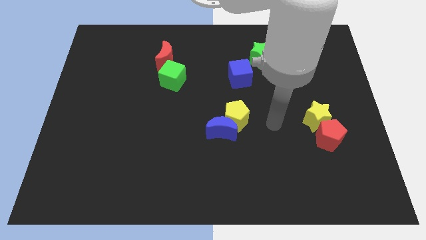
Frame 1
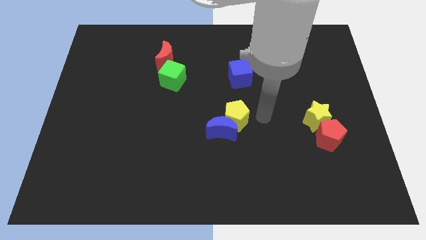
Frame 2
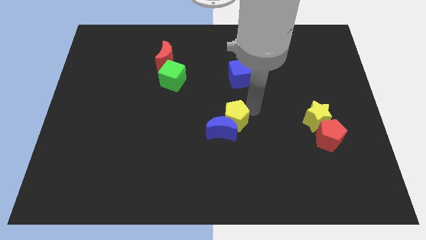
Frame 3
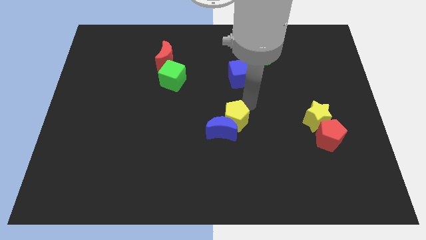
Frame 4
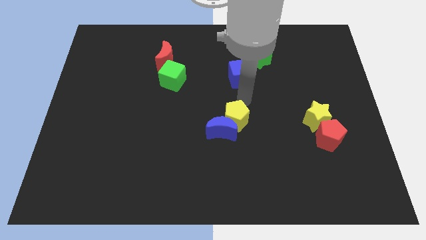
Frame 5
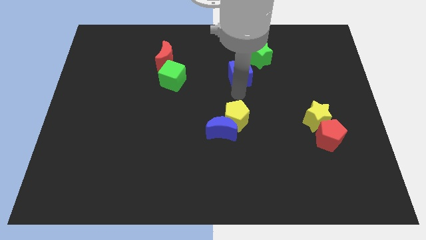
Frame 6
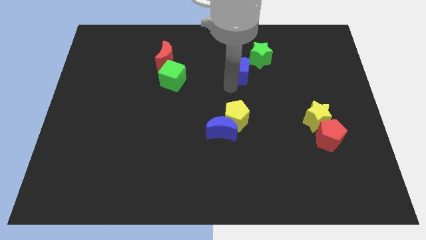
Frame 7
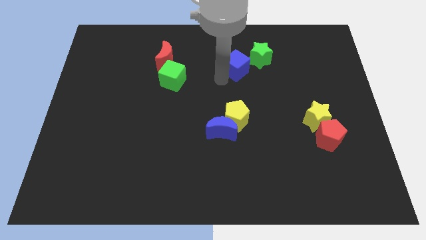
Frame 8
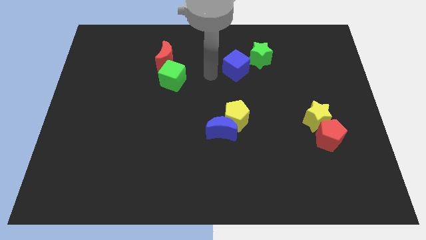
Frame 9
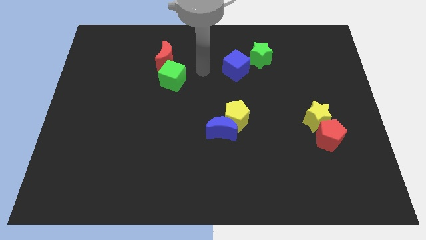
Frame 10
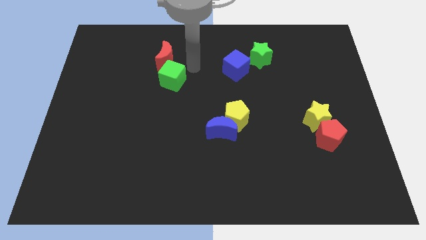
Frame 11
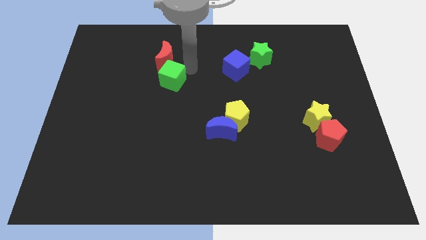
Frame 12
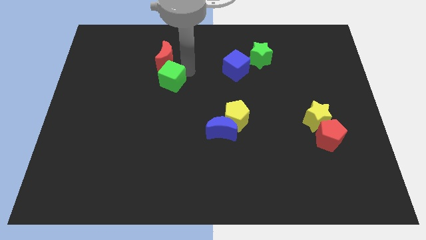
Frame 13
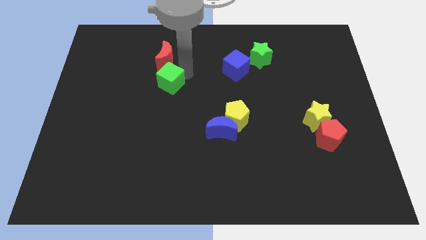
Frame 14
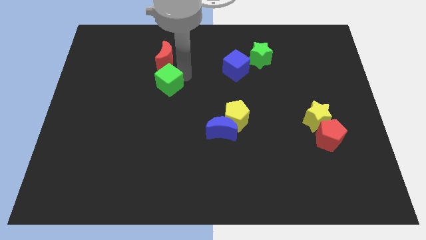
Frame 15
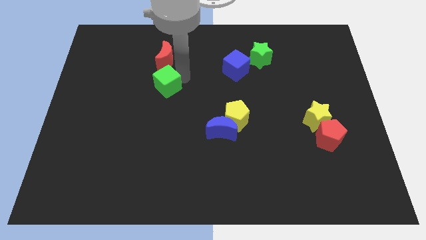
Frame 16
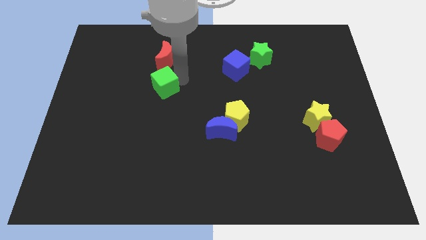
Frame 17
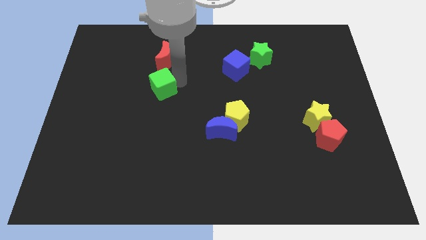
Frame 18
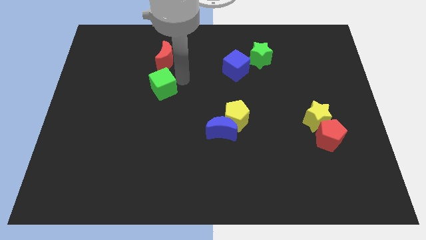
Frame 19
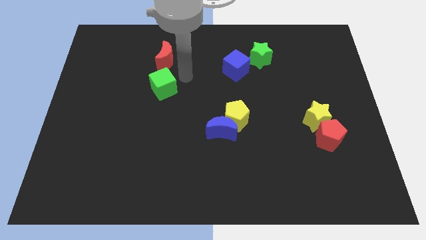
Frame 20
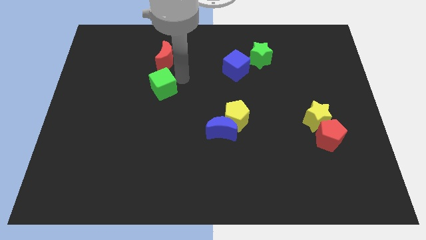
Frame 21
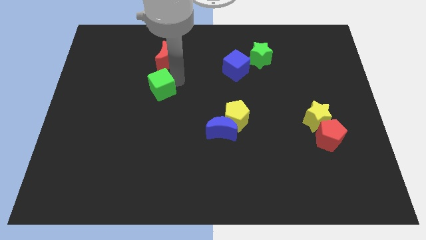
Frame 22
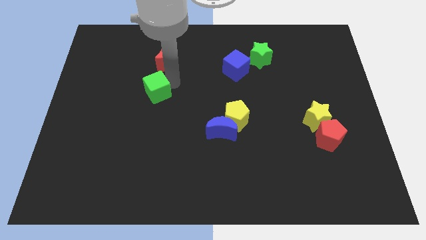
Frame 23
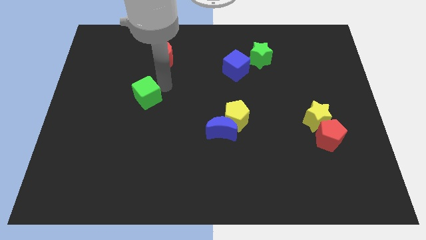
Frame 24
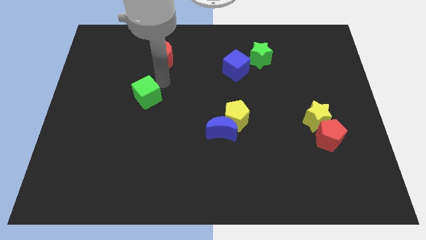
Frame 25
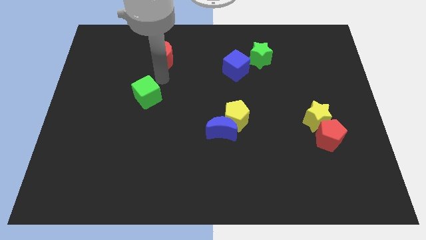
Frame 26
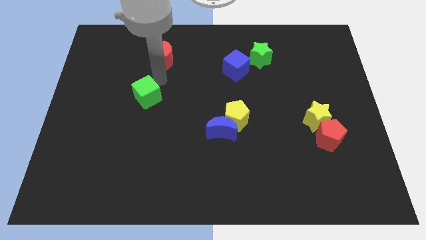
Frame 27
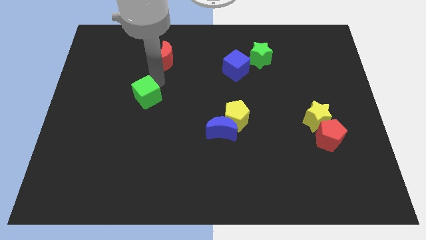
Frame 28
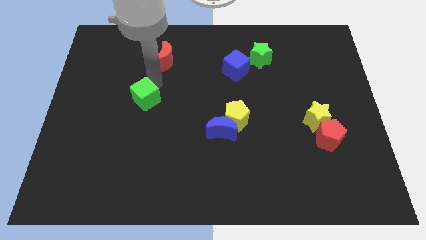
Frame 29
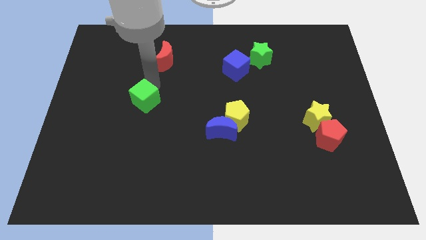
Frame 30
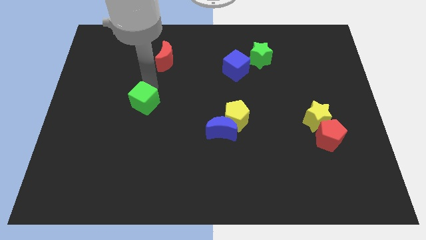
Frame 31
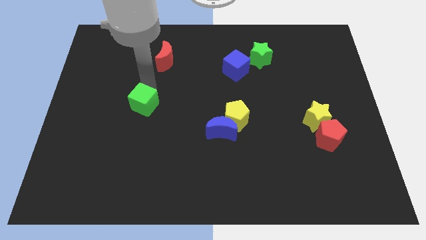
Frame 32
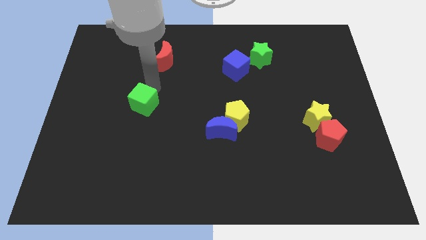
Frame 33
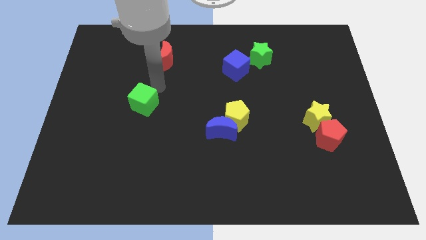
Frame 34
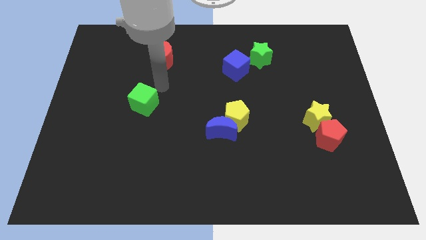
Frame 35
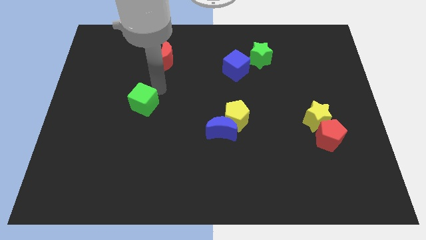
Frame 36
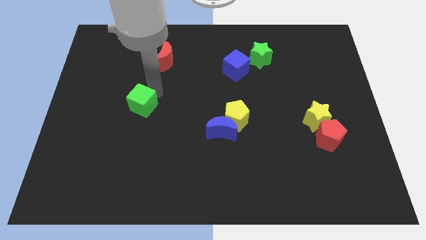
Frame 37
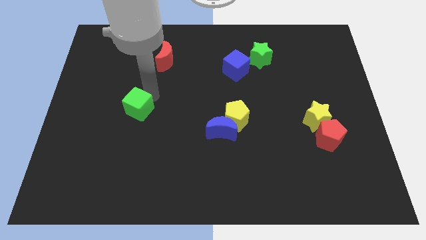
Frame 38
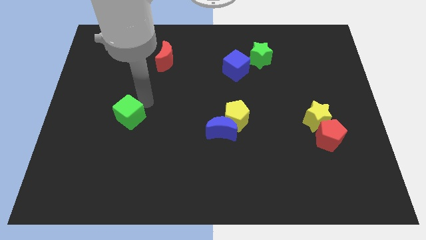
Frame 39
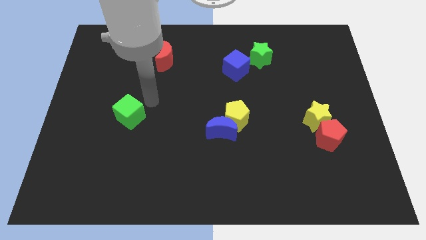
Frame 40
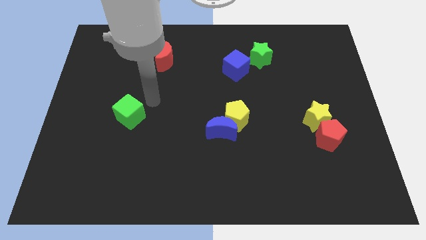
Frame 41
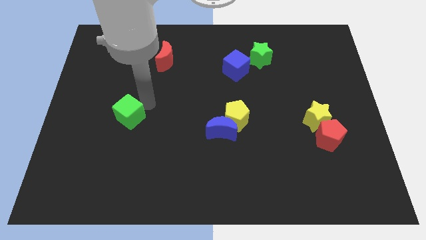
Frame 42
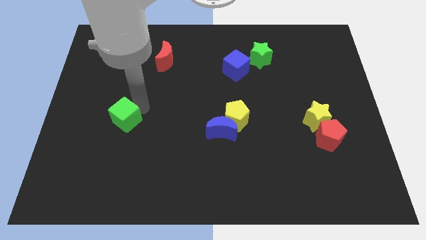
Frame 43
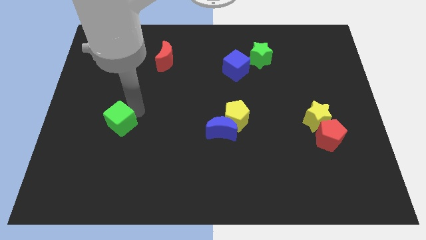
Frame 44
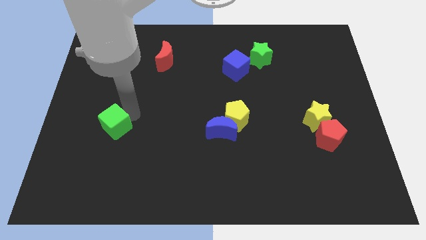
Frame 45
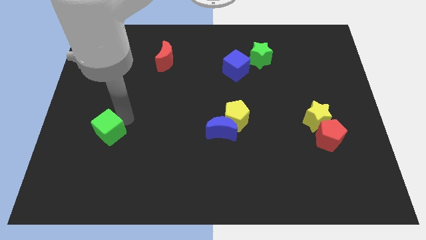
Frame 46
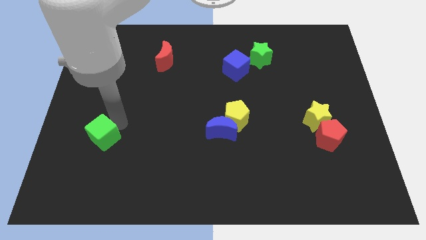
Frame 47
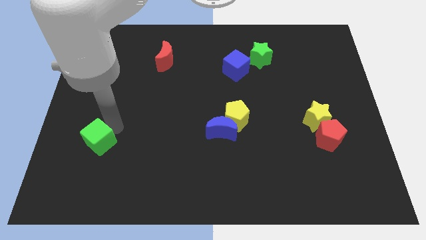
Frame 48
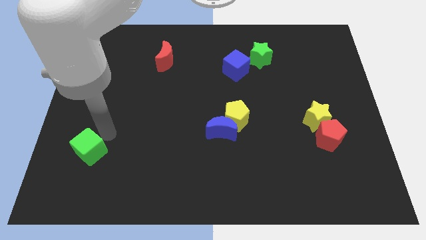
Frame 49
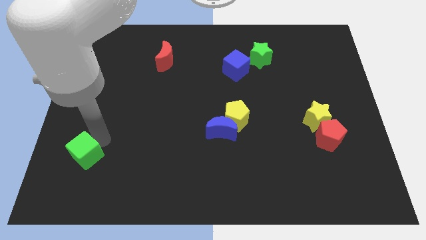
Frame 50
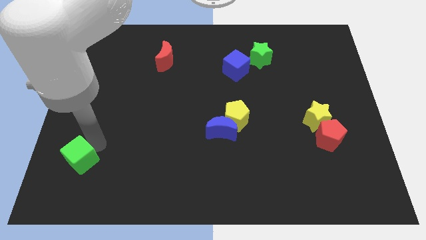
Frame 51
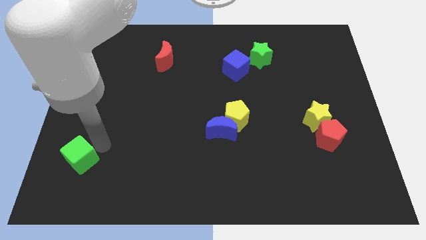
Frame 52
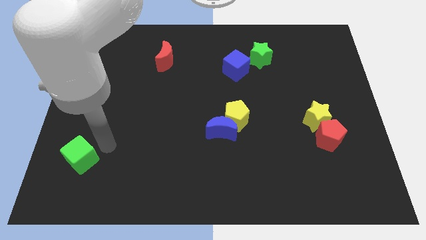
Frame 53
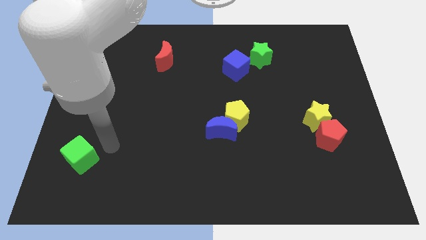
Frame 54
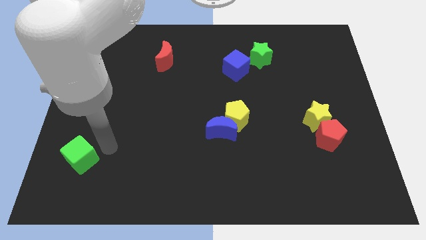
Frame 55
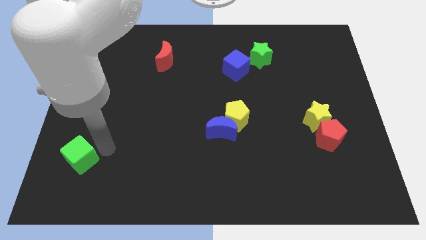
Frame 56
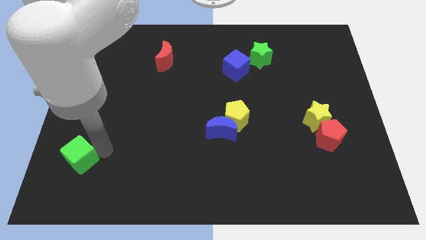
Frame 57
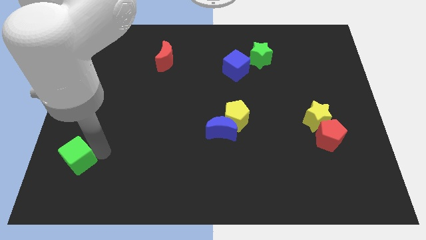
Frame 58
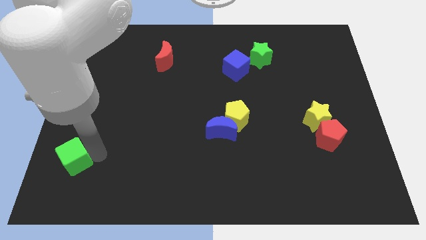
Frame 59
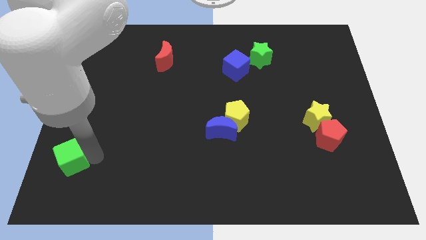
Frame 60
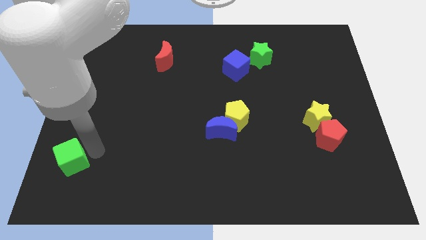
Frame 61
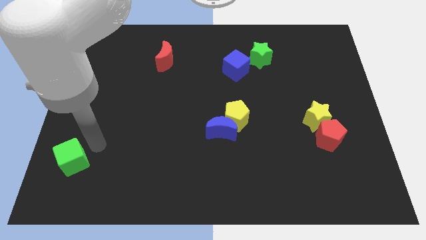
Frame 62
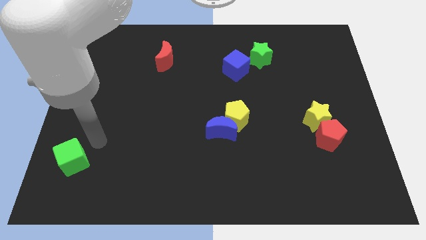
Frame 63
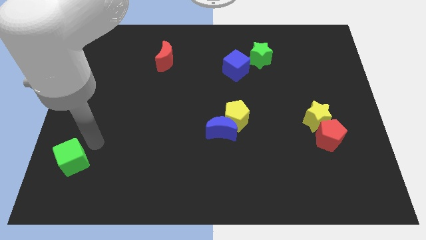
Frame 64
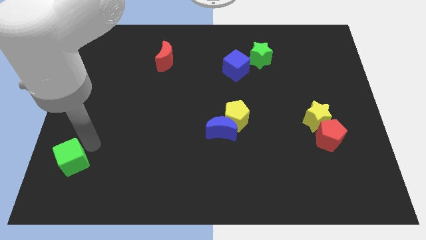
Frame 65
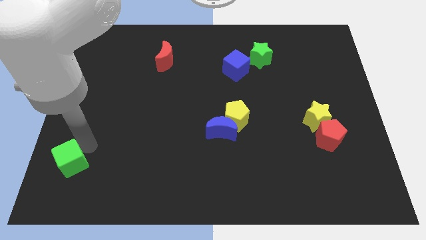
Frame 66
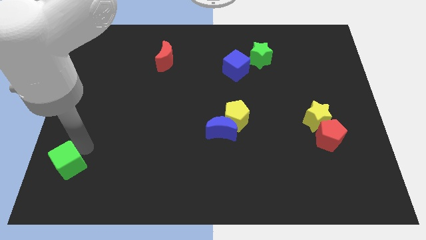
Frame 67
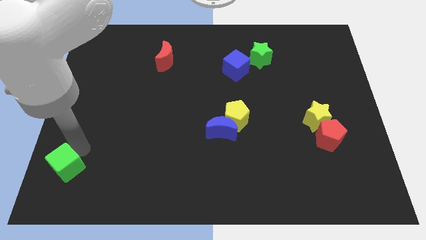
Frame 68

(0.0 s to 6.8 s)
push the green cube to the bottom left corner
